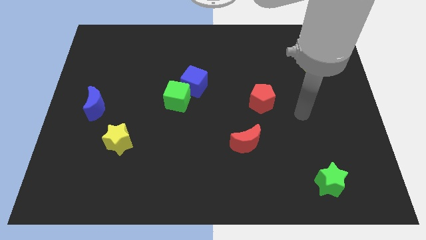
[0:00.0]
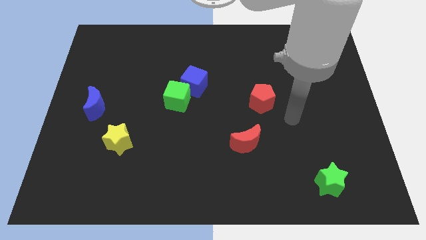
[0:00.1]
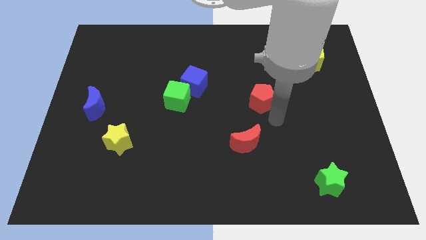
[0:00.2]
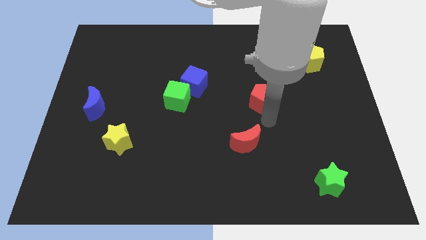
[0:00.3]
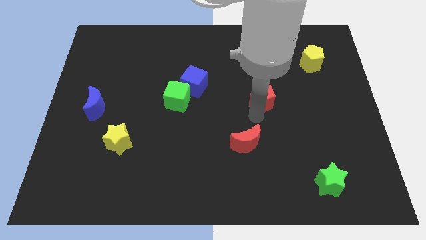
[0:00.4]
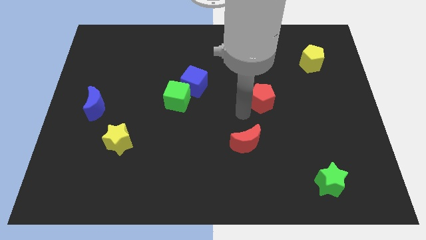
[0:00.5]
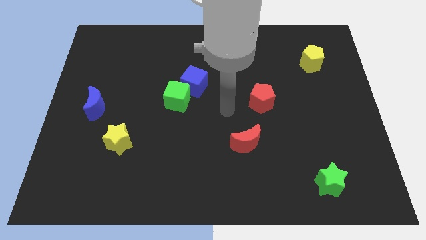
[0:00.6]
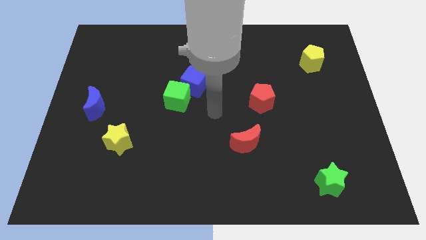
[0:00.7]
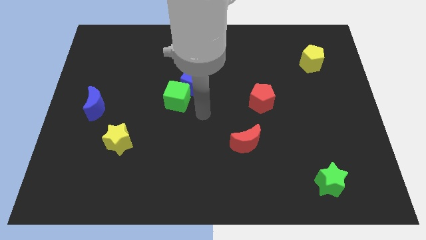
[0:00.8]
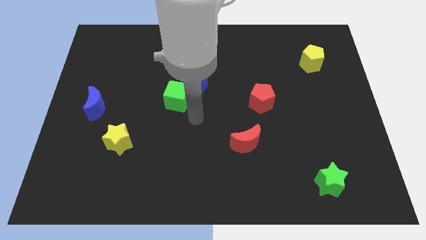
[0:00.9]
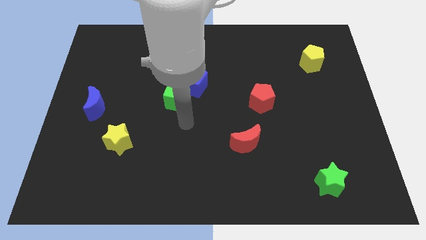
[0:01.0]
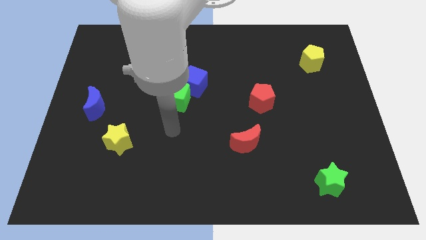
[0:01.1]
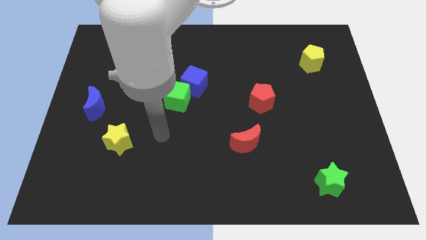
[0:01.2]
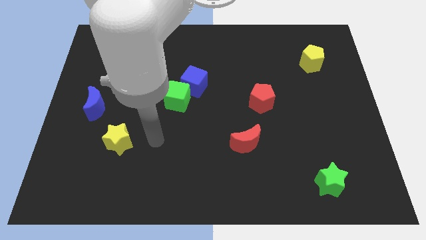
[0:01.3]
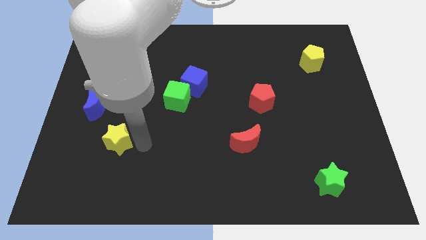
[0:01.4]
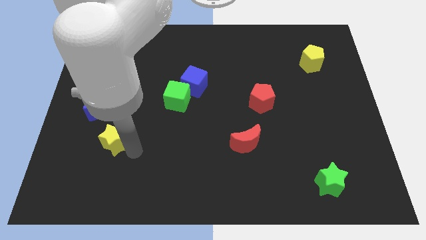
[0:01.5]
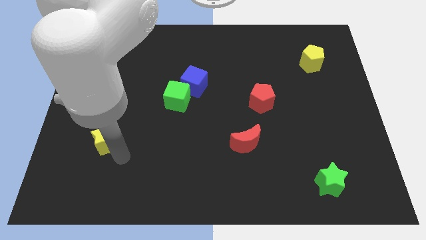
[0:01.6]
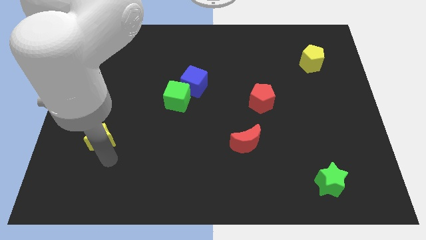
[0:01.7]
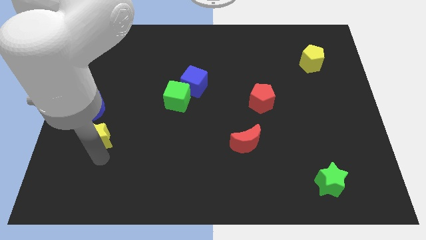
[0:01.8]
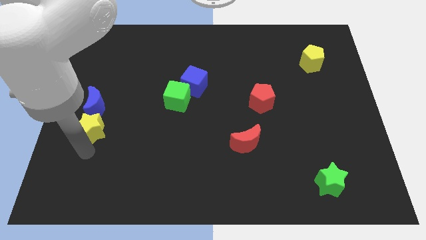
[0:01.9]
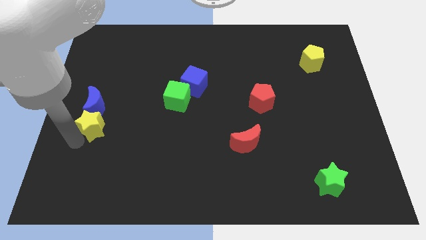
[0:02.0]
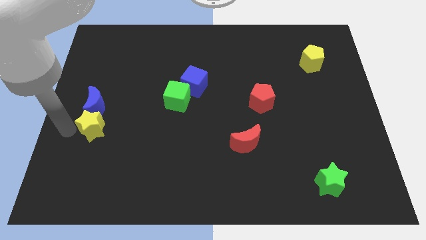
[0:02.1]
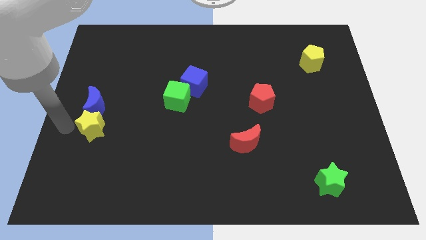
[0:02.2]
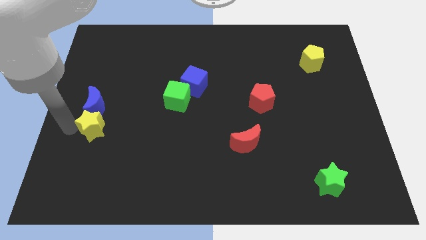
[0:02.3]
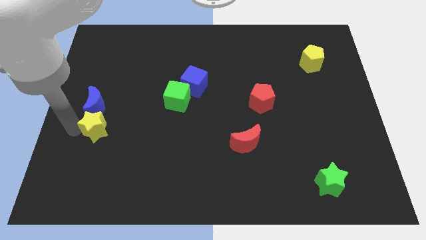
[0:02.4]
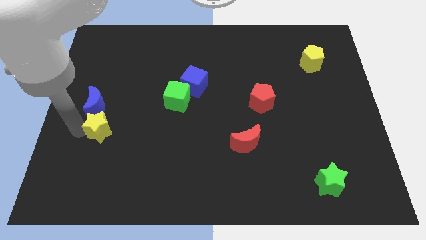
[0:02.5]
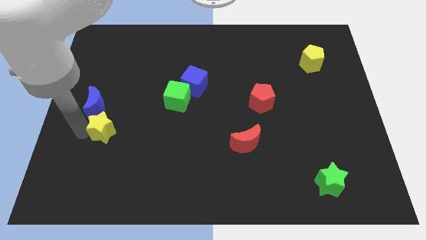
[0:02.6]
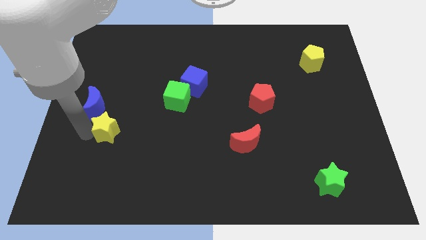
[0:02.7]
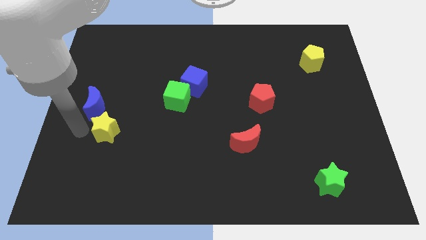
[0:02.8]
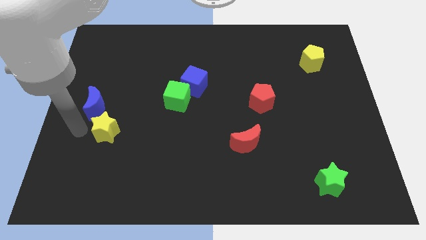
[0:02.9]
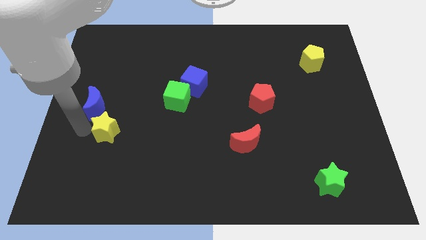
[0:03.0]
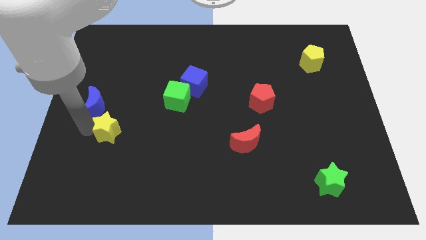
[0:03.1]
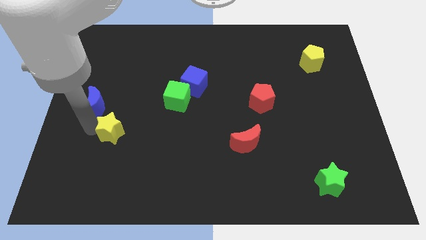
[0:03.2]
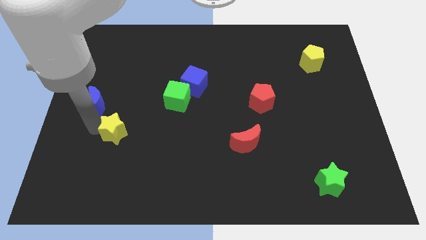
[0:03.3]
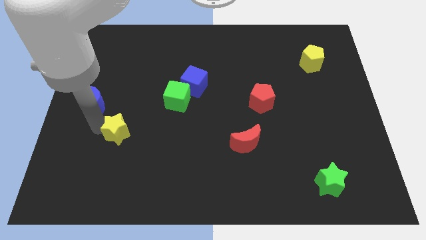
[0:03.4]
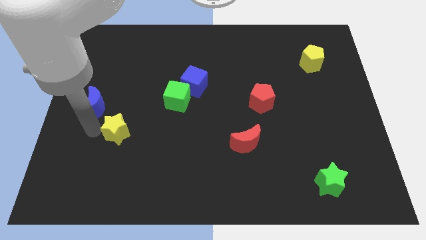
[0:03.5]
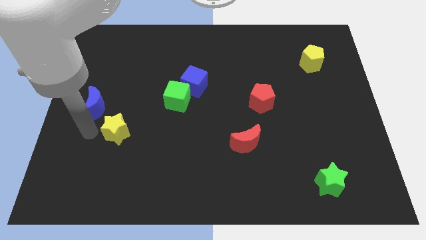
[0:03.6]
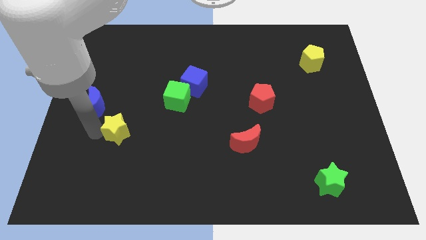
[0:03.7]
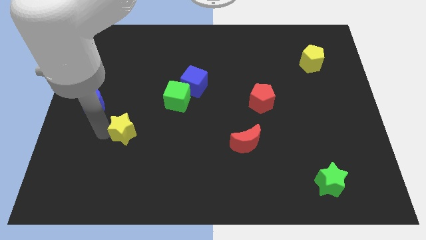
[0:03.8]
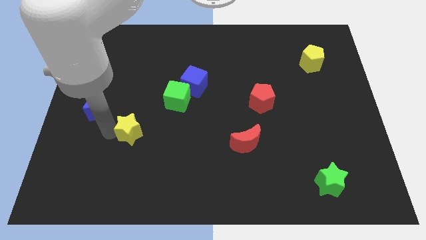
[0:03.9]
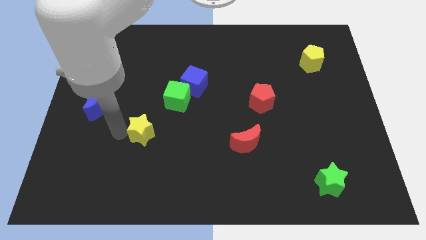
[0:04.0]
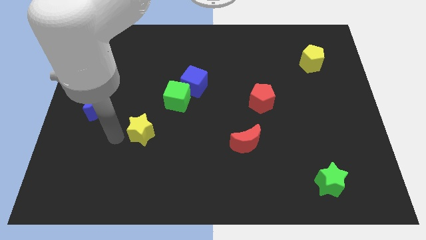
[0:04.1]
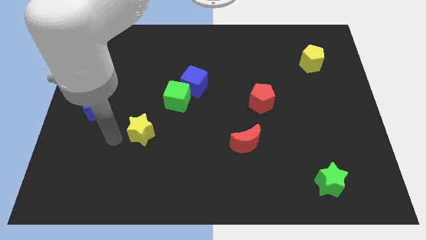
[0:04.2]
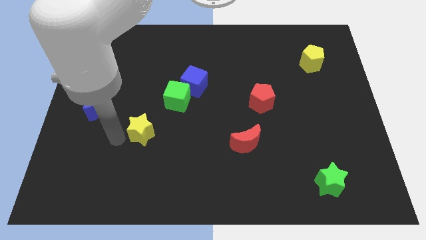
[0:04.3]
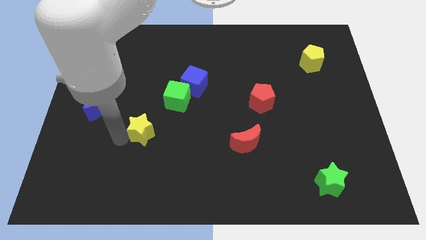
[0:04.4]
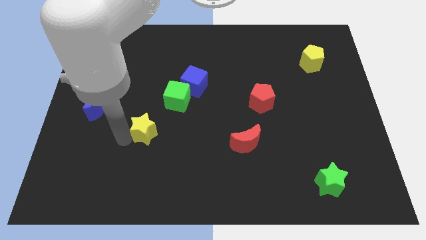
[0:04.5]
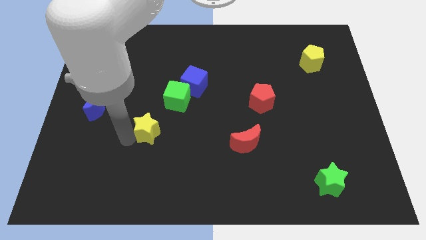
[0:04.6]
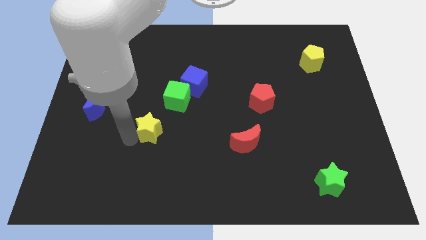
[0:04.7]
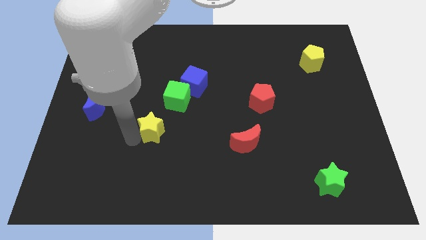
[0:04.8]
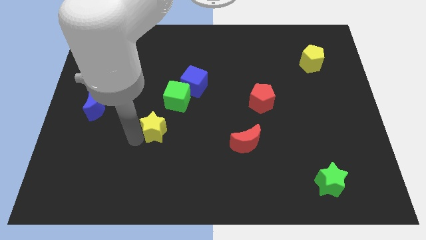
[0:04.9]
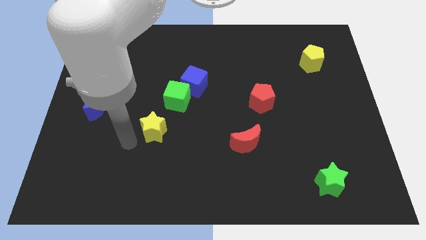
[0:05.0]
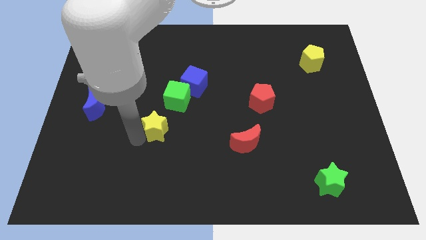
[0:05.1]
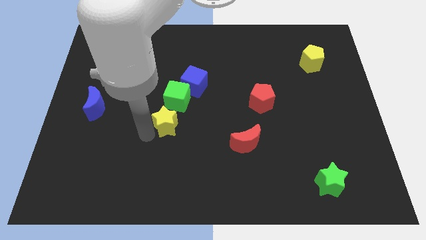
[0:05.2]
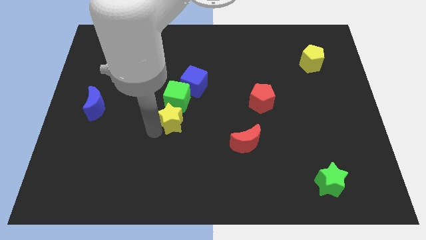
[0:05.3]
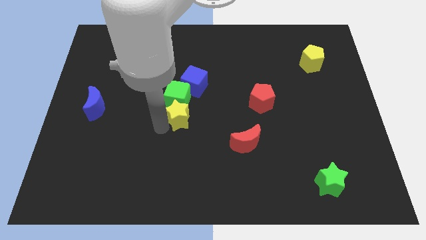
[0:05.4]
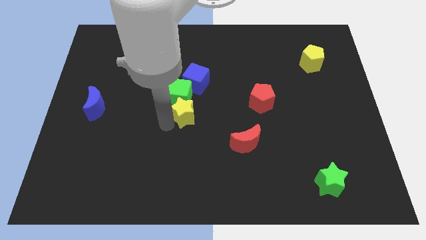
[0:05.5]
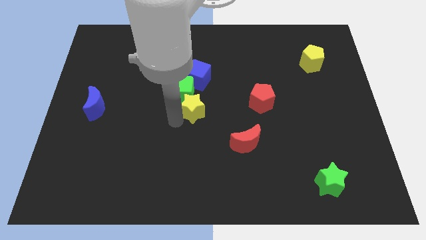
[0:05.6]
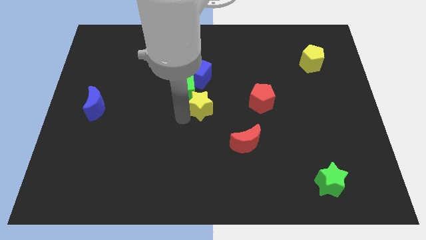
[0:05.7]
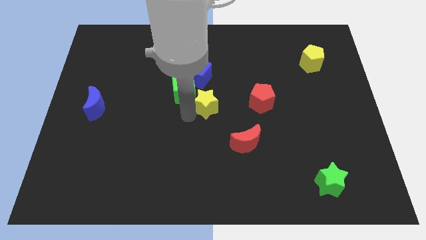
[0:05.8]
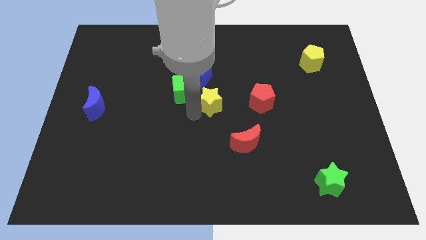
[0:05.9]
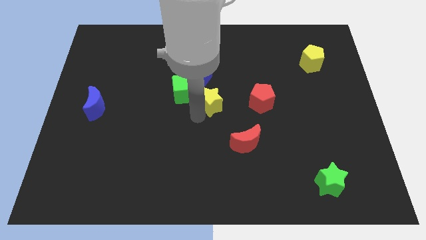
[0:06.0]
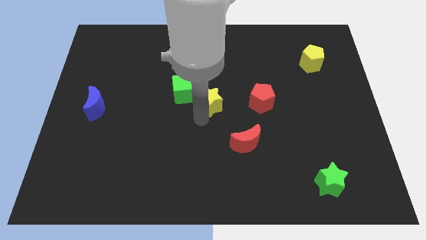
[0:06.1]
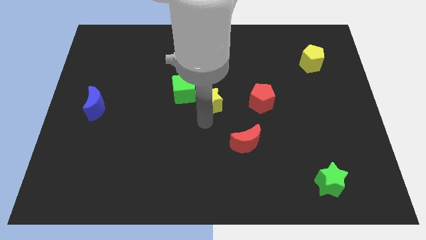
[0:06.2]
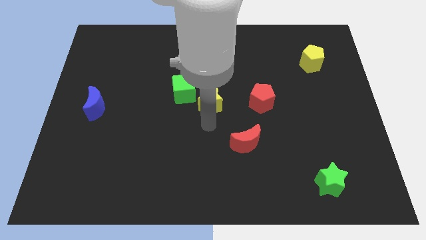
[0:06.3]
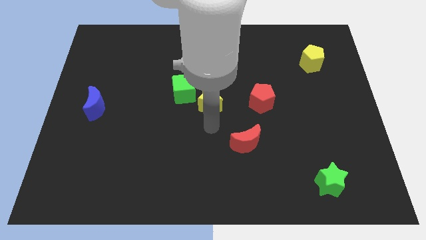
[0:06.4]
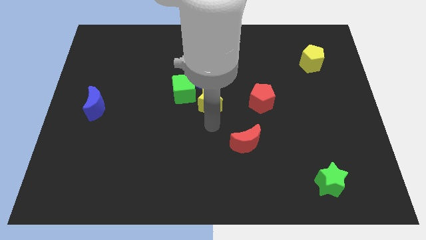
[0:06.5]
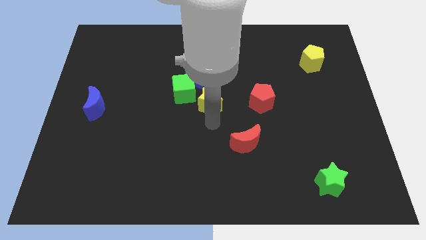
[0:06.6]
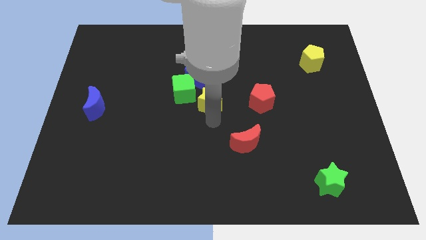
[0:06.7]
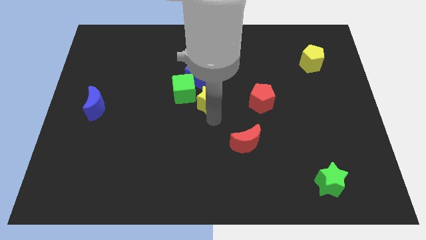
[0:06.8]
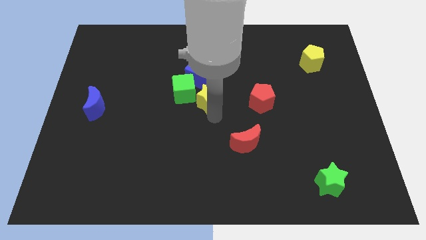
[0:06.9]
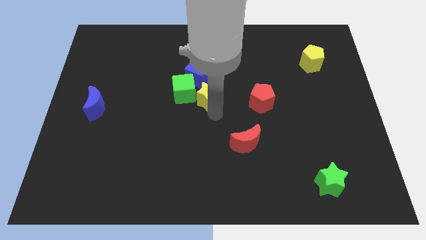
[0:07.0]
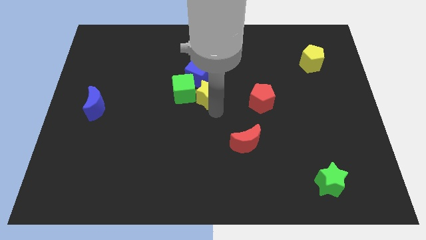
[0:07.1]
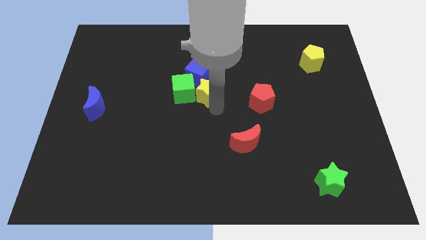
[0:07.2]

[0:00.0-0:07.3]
put the yellow star to the top right side of the green cube

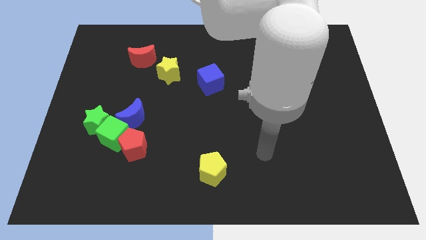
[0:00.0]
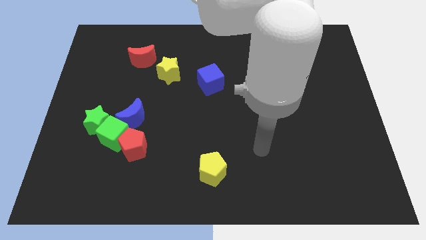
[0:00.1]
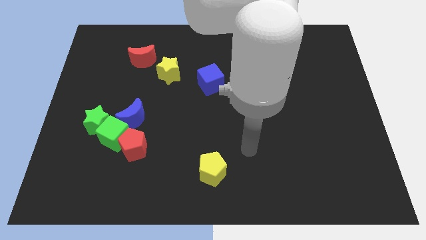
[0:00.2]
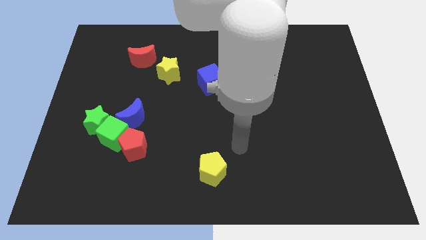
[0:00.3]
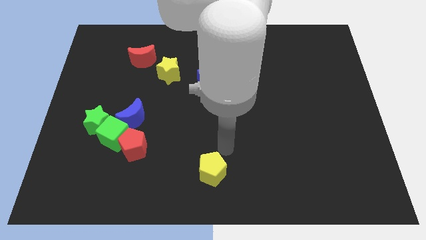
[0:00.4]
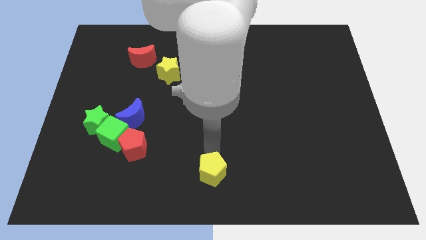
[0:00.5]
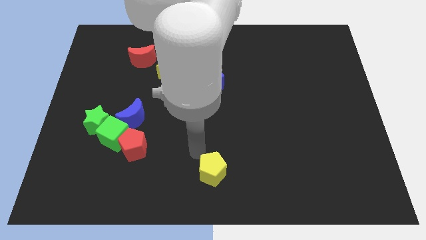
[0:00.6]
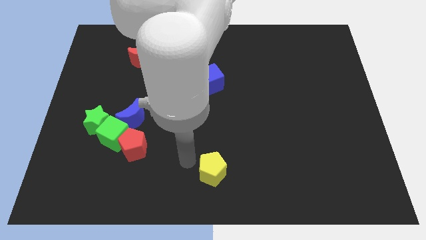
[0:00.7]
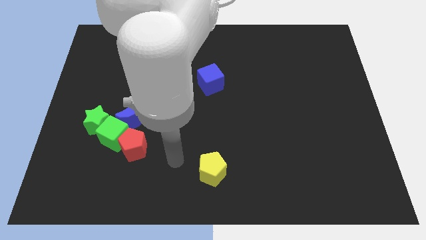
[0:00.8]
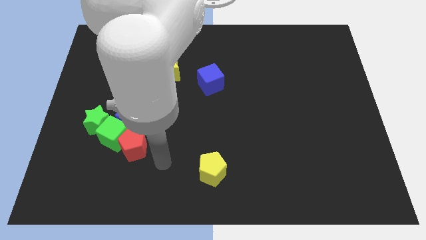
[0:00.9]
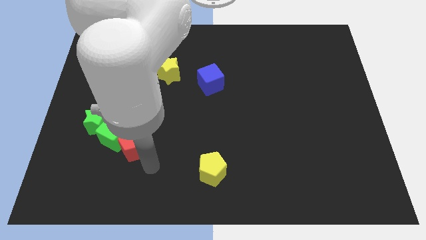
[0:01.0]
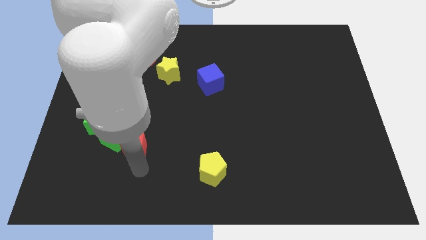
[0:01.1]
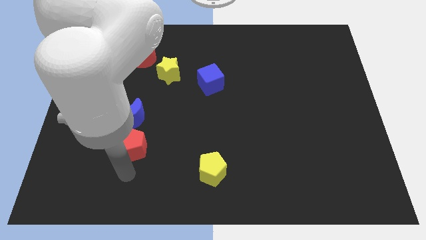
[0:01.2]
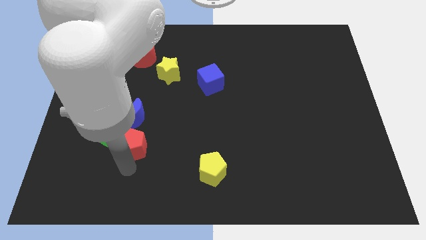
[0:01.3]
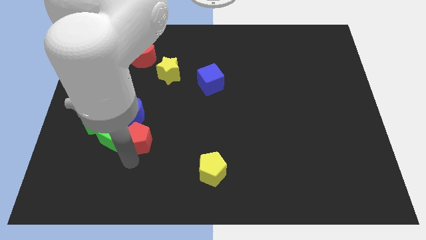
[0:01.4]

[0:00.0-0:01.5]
slide the red pentagon right of the green star
